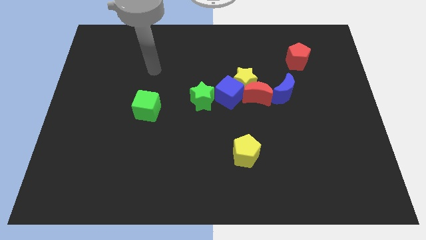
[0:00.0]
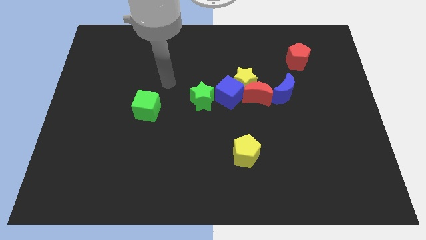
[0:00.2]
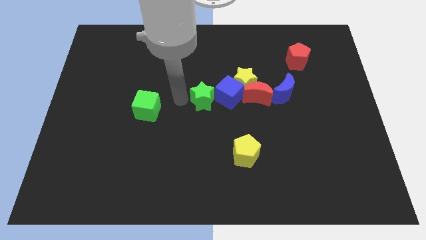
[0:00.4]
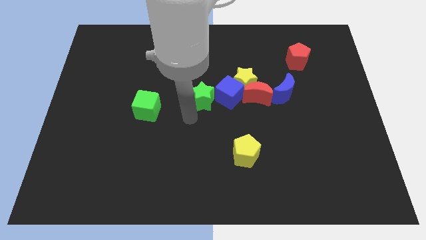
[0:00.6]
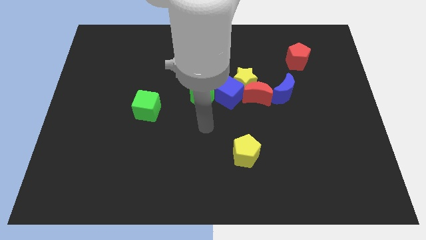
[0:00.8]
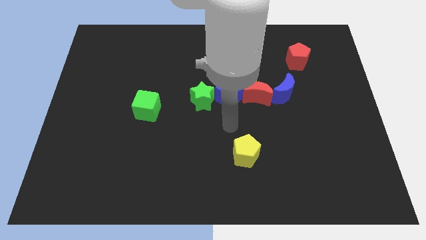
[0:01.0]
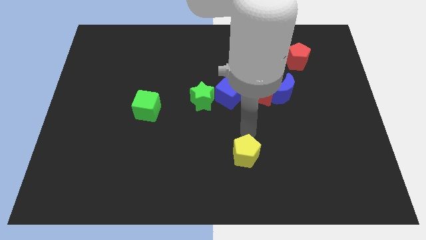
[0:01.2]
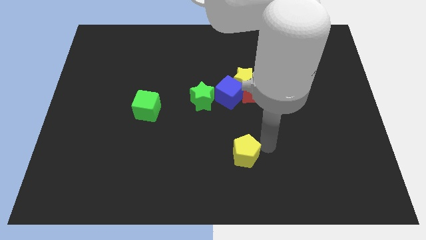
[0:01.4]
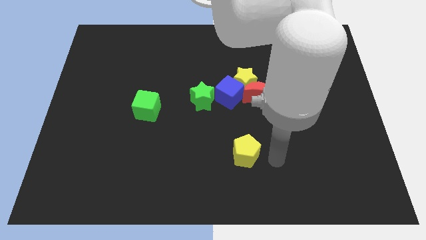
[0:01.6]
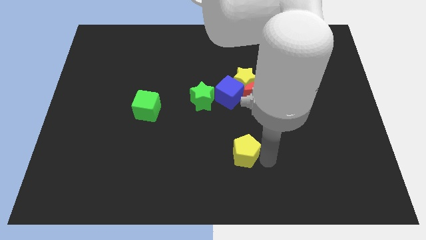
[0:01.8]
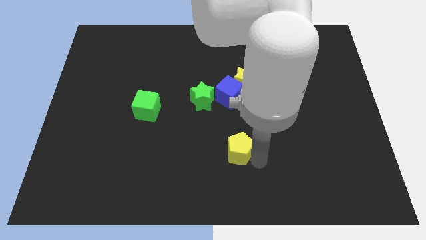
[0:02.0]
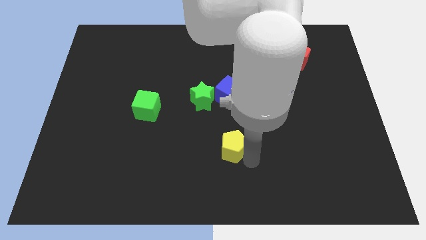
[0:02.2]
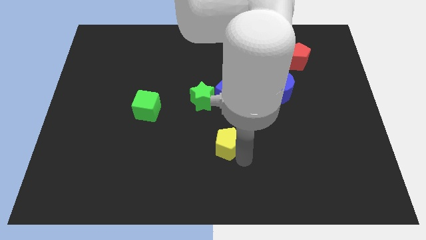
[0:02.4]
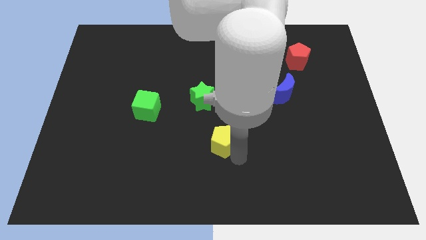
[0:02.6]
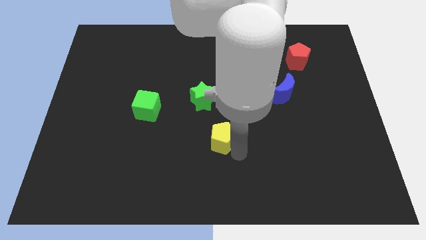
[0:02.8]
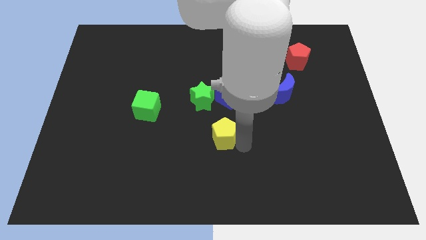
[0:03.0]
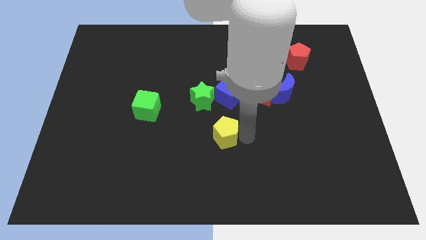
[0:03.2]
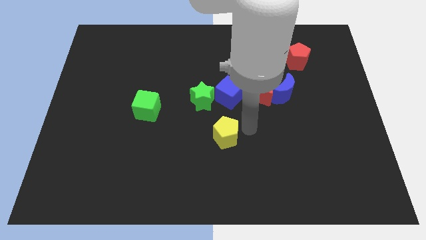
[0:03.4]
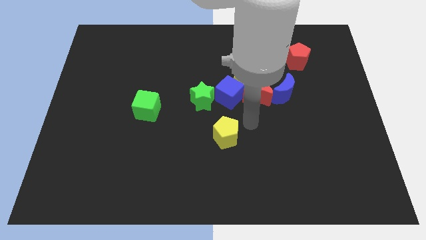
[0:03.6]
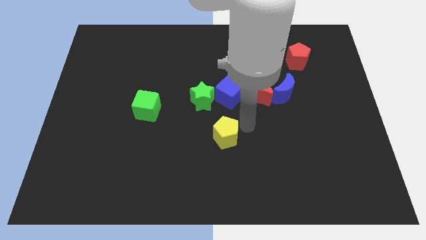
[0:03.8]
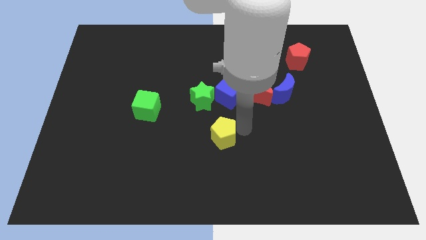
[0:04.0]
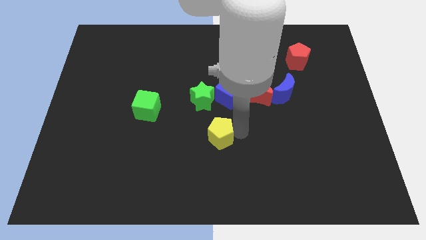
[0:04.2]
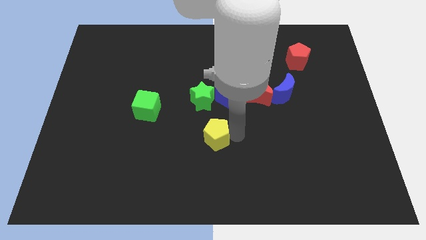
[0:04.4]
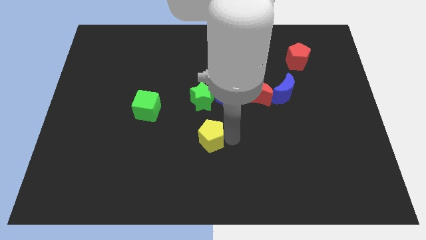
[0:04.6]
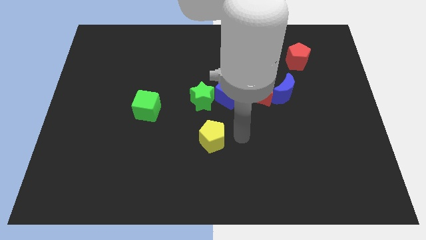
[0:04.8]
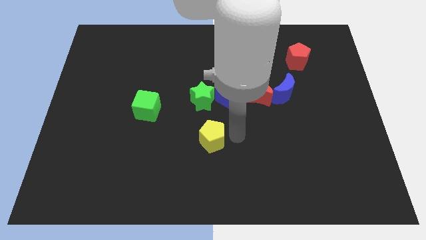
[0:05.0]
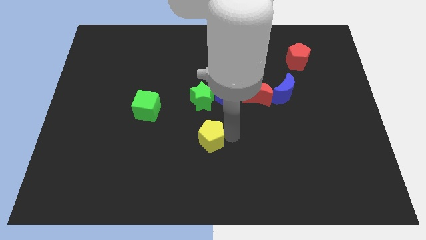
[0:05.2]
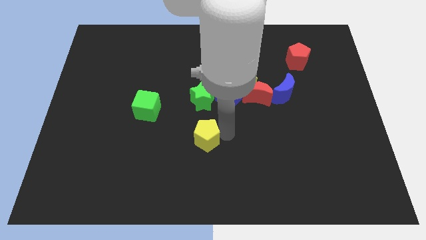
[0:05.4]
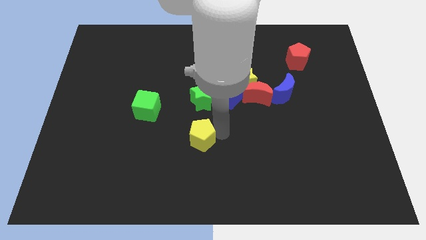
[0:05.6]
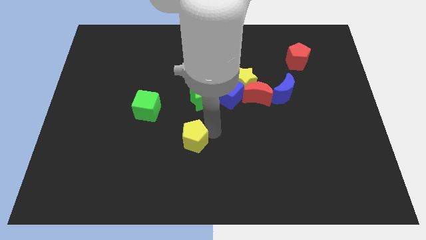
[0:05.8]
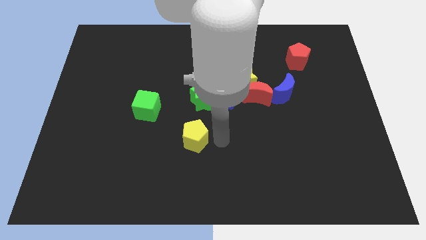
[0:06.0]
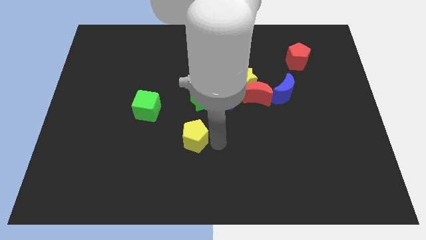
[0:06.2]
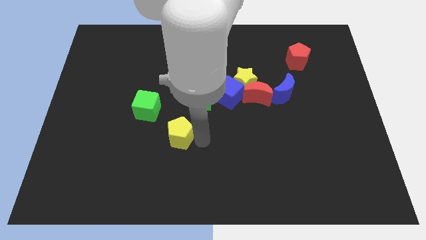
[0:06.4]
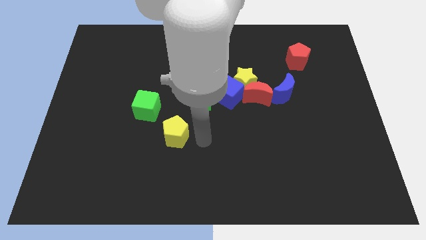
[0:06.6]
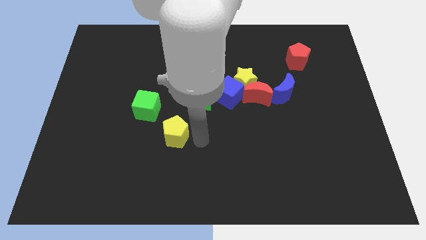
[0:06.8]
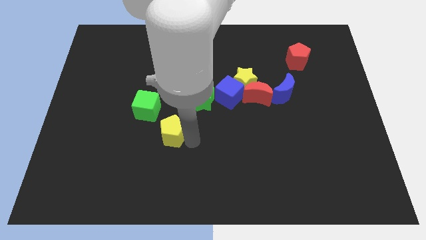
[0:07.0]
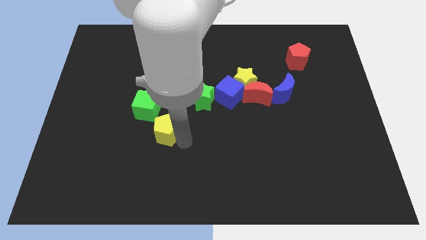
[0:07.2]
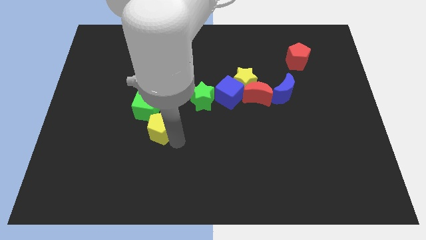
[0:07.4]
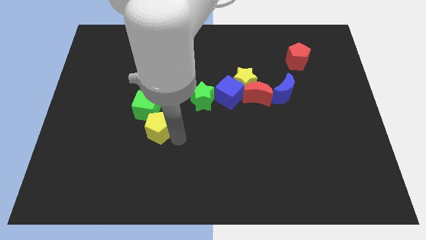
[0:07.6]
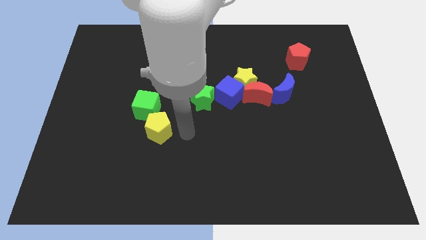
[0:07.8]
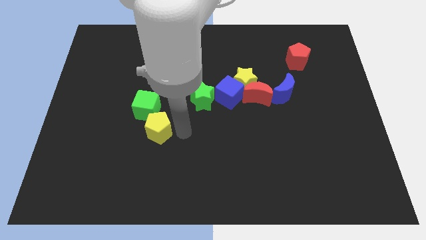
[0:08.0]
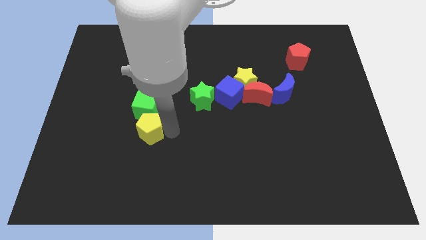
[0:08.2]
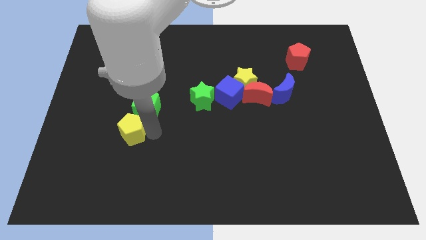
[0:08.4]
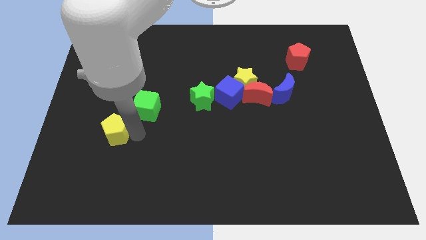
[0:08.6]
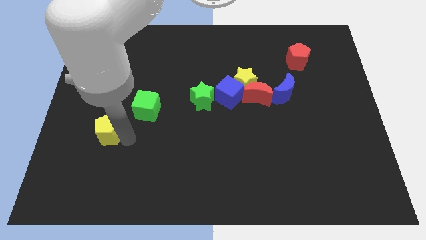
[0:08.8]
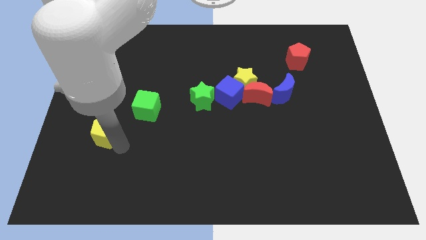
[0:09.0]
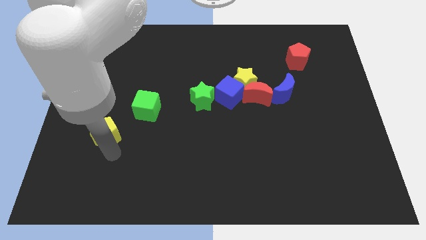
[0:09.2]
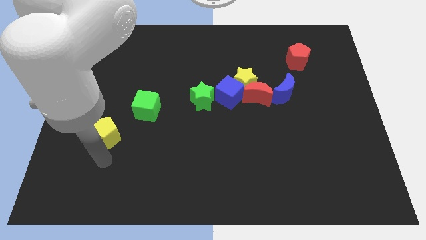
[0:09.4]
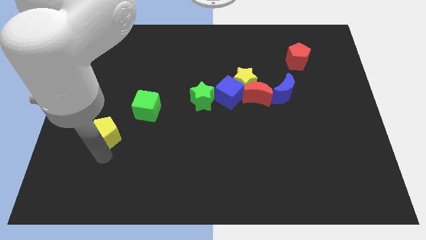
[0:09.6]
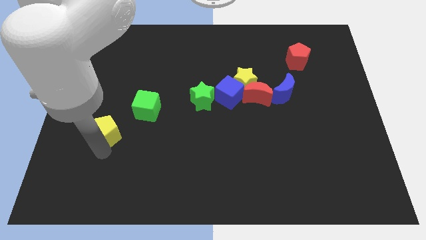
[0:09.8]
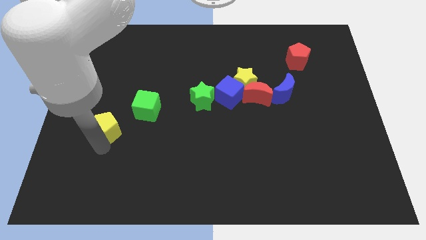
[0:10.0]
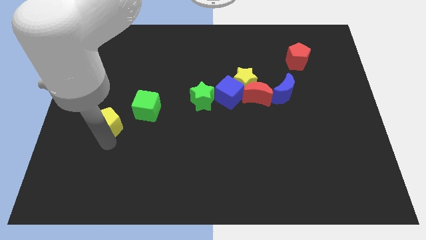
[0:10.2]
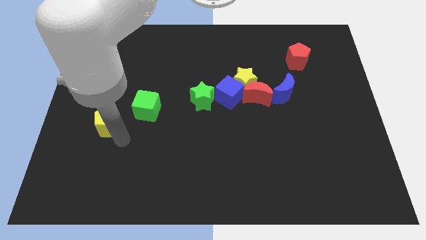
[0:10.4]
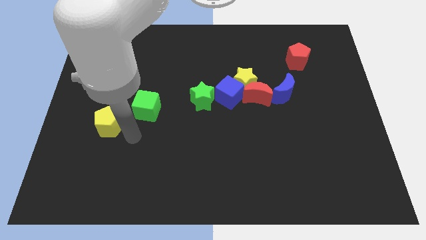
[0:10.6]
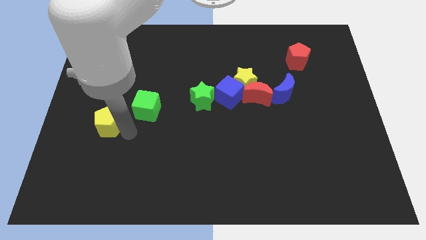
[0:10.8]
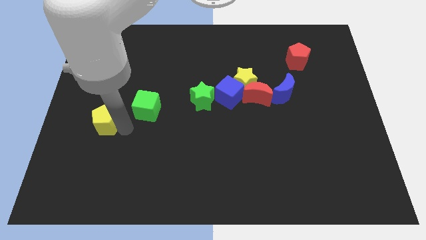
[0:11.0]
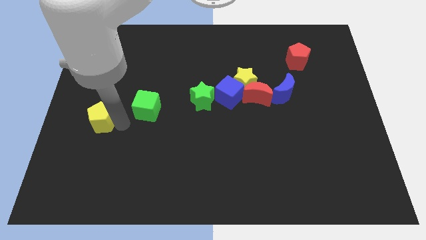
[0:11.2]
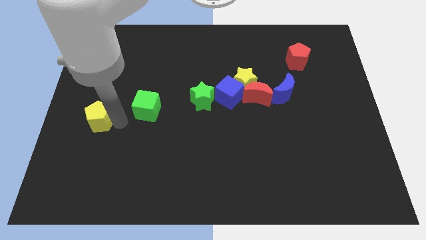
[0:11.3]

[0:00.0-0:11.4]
slide the yellow pentagon to the left side

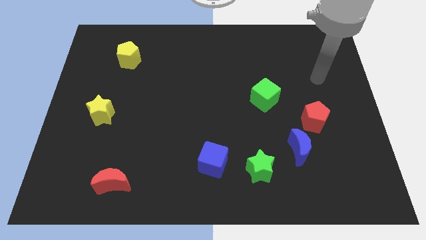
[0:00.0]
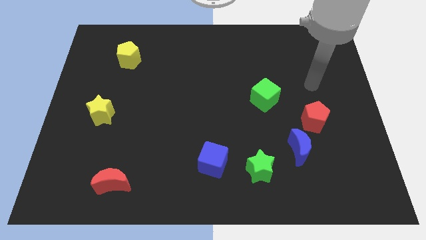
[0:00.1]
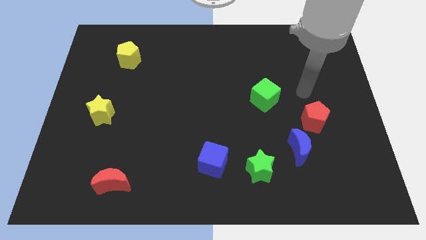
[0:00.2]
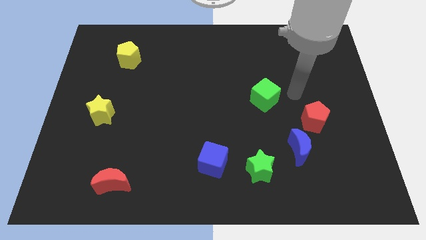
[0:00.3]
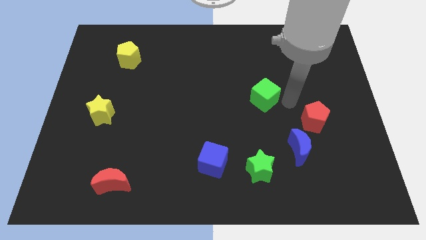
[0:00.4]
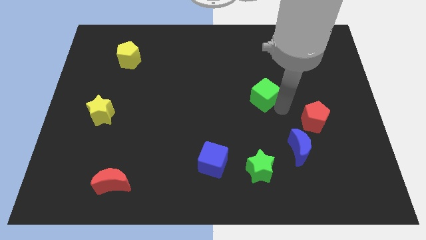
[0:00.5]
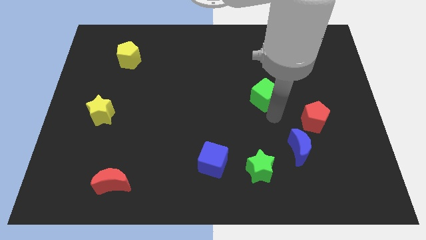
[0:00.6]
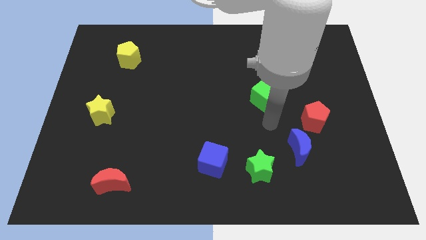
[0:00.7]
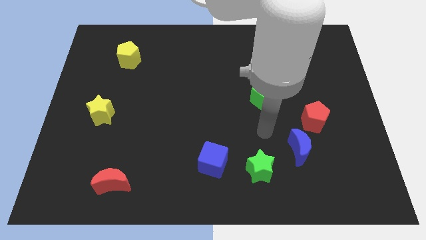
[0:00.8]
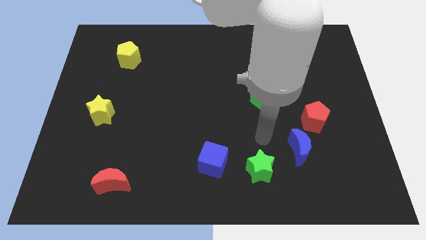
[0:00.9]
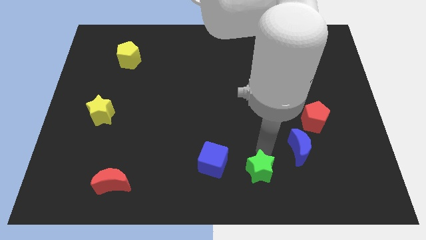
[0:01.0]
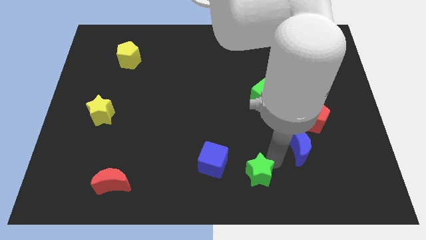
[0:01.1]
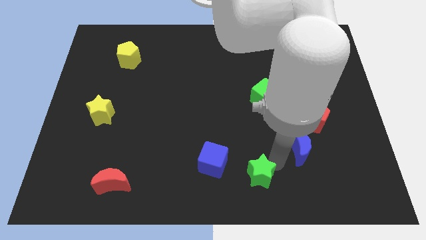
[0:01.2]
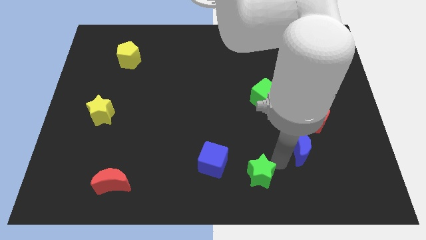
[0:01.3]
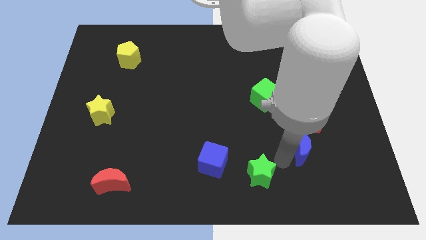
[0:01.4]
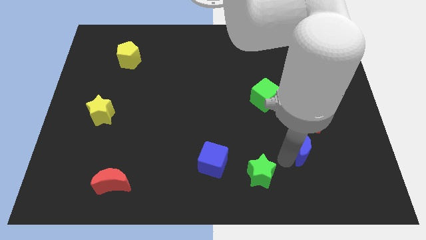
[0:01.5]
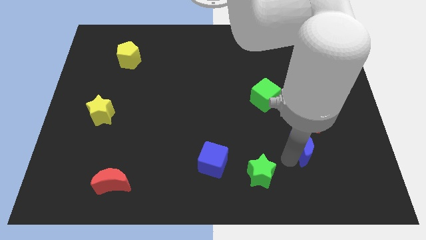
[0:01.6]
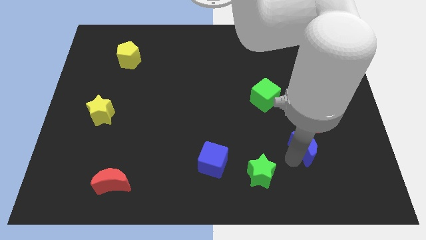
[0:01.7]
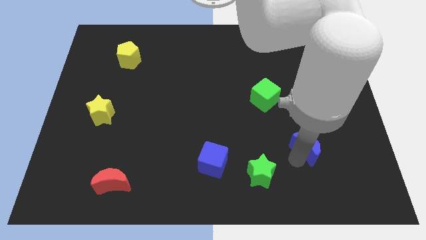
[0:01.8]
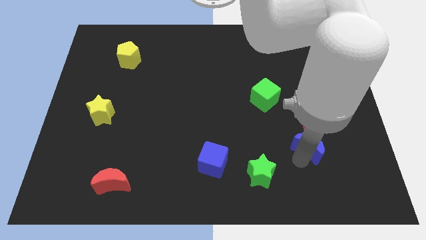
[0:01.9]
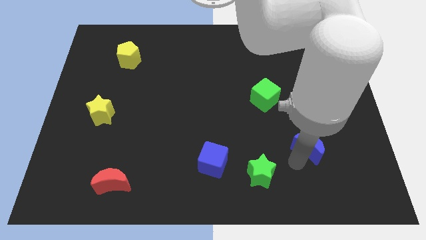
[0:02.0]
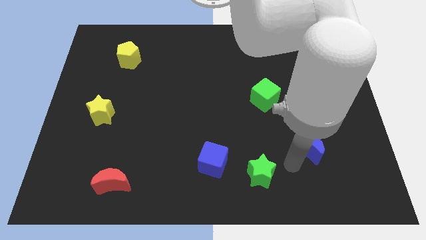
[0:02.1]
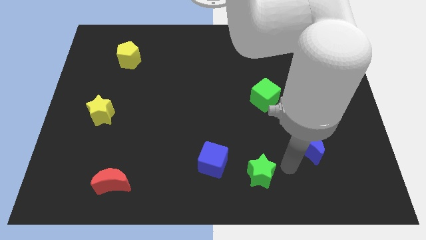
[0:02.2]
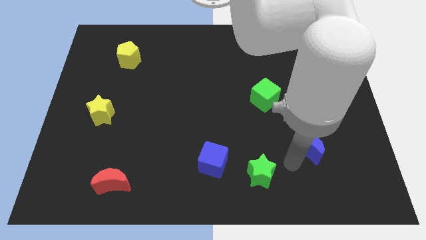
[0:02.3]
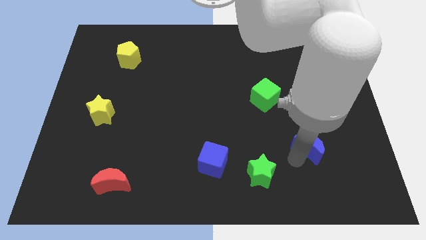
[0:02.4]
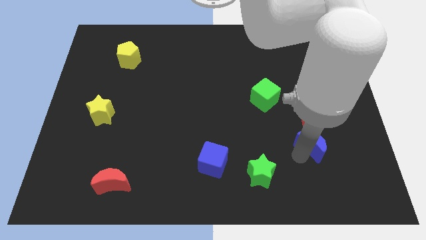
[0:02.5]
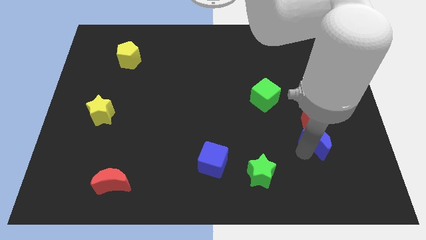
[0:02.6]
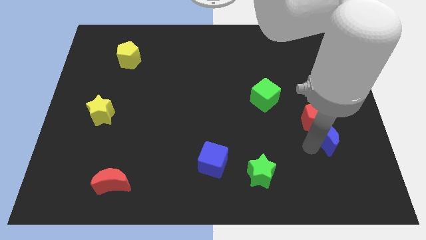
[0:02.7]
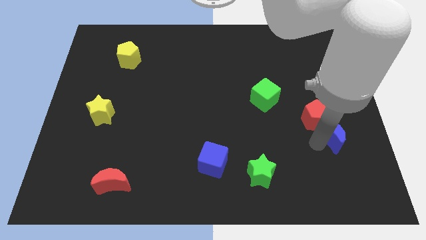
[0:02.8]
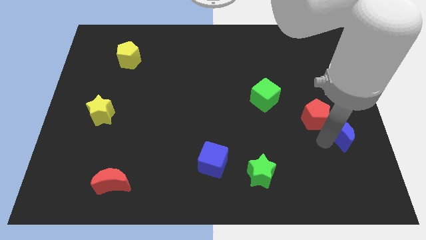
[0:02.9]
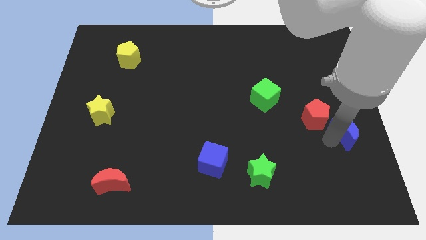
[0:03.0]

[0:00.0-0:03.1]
put the blue moon to the right side of the board
